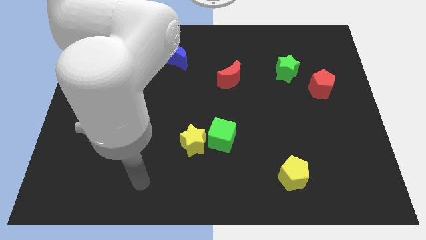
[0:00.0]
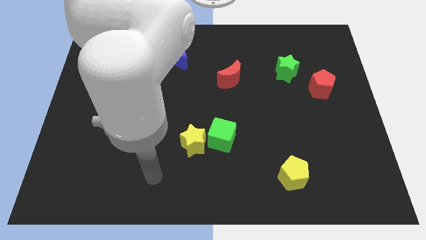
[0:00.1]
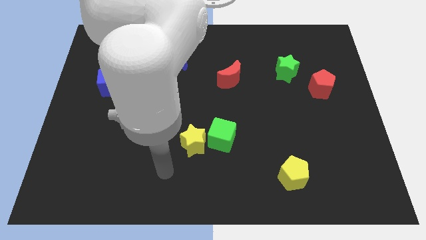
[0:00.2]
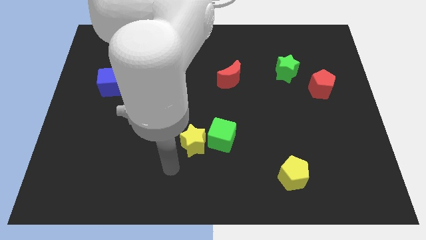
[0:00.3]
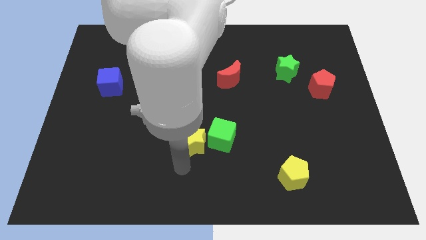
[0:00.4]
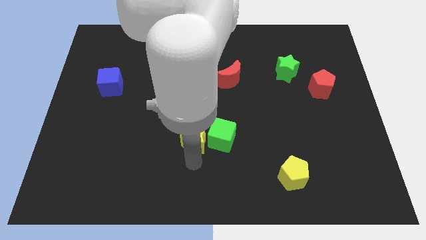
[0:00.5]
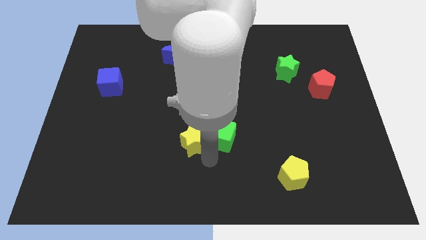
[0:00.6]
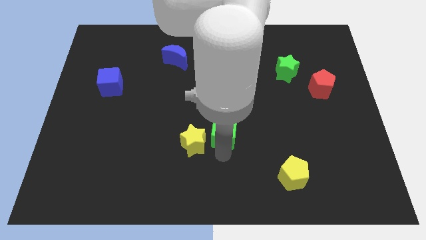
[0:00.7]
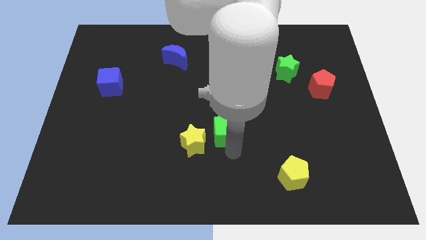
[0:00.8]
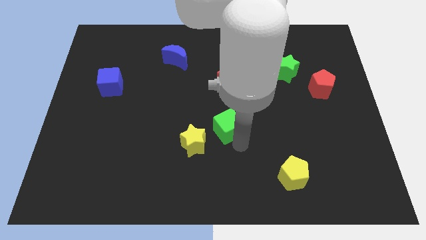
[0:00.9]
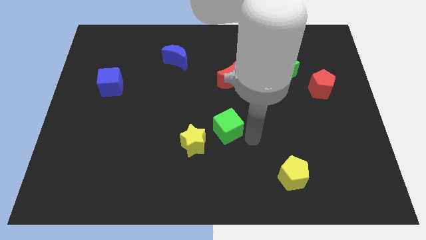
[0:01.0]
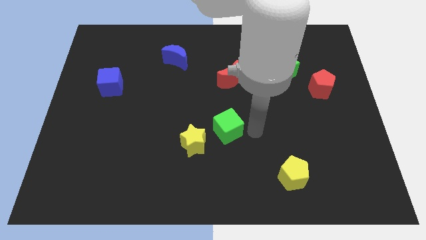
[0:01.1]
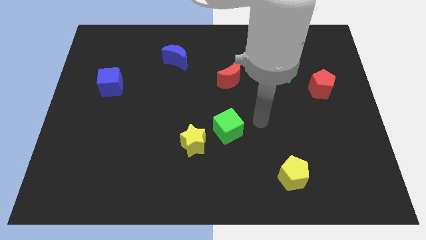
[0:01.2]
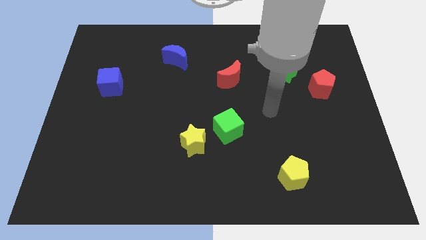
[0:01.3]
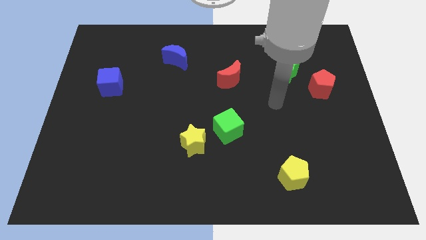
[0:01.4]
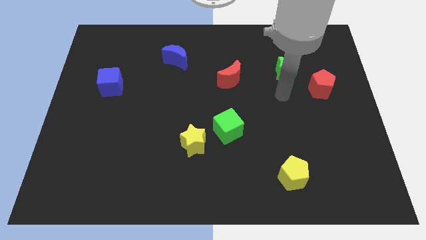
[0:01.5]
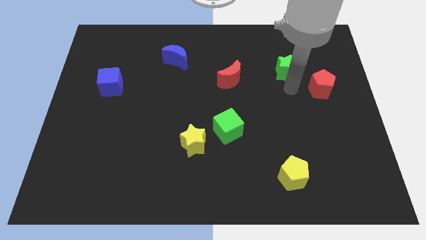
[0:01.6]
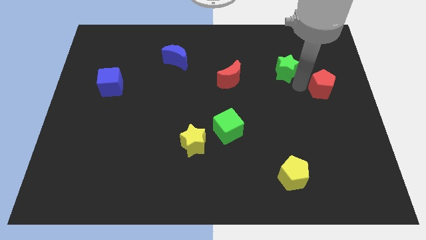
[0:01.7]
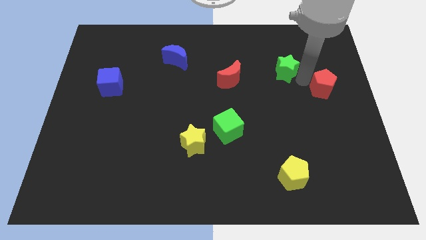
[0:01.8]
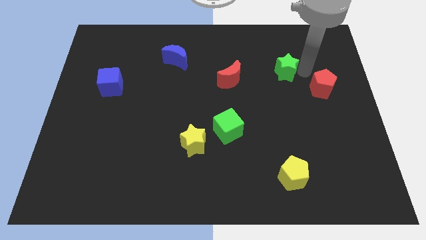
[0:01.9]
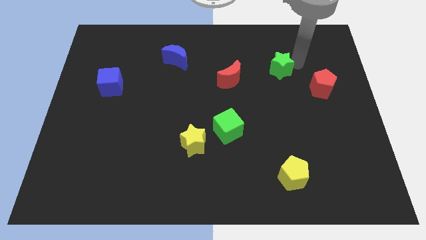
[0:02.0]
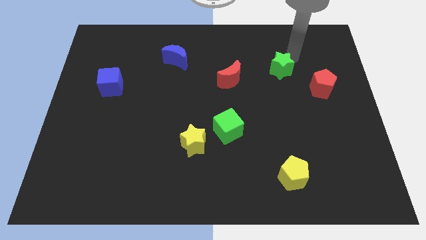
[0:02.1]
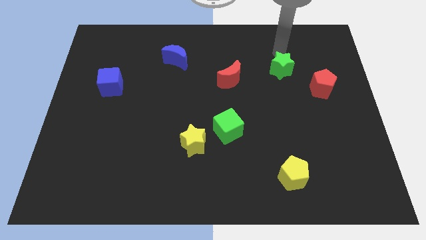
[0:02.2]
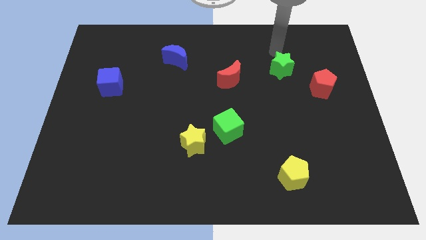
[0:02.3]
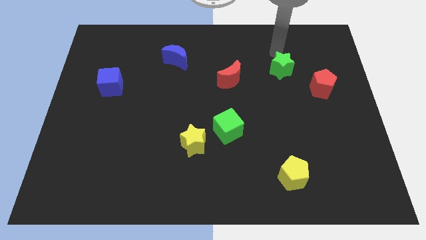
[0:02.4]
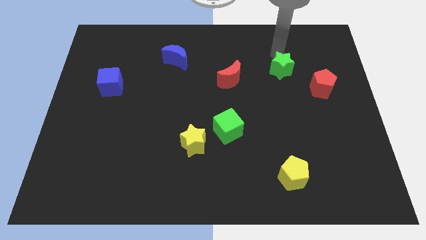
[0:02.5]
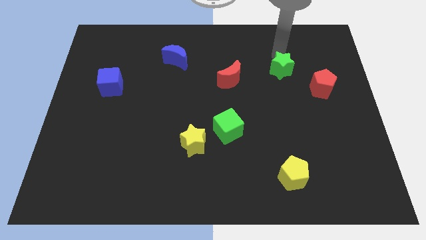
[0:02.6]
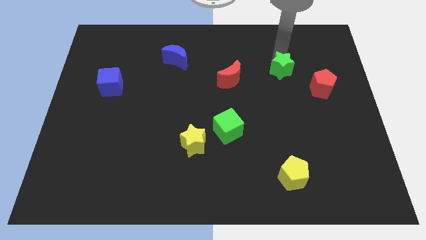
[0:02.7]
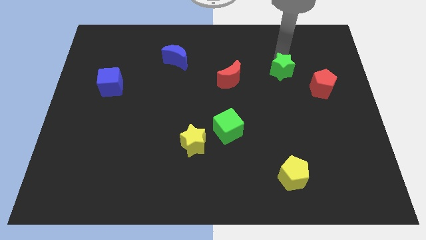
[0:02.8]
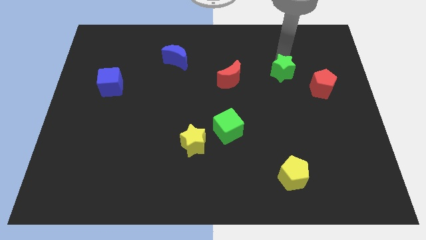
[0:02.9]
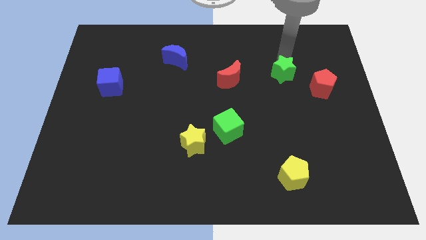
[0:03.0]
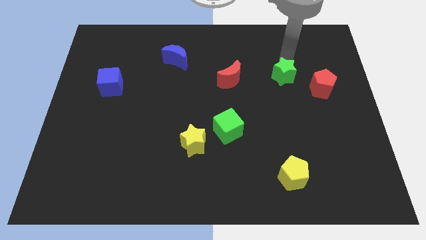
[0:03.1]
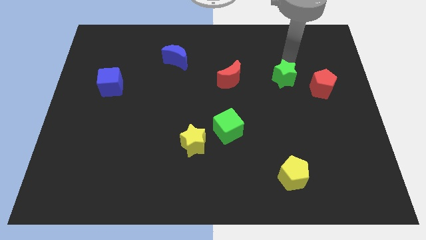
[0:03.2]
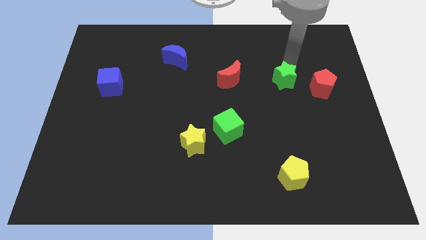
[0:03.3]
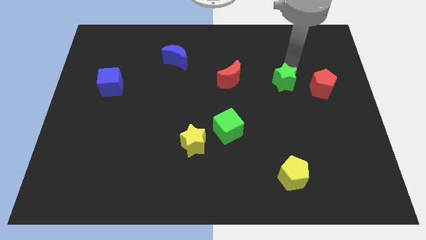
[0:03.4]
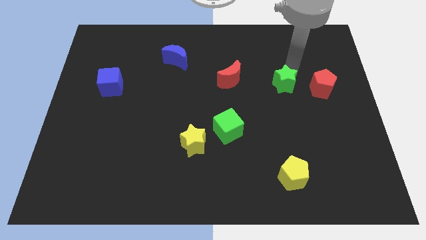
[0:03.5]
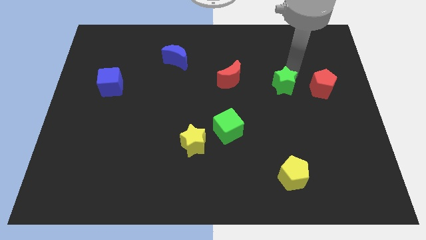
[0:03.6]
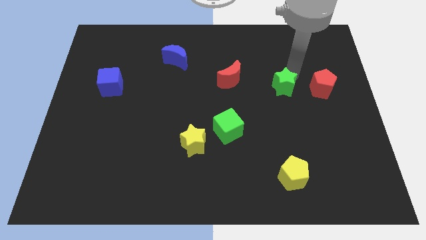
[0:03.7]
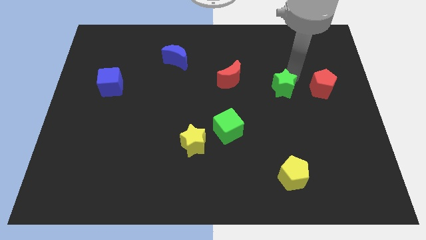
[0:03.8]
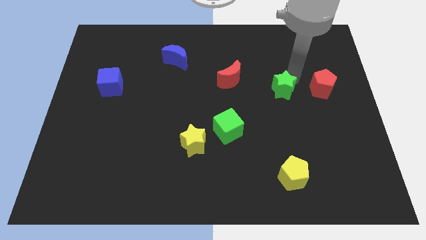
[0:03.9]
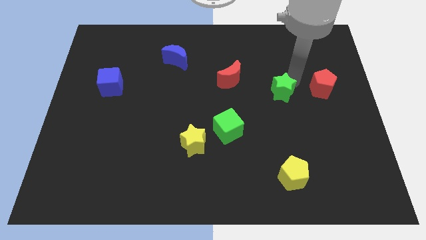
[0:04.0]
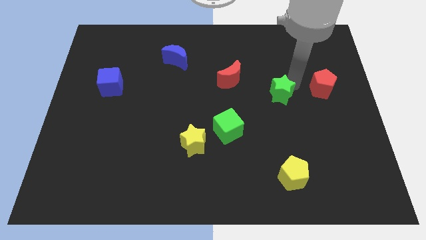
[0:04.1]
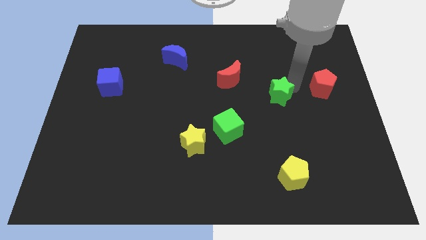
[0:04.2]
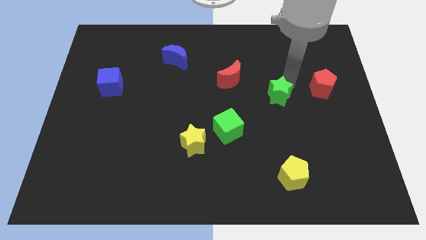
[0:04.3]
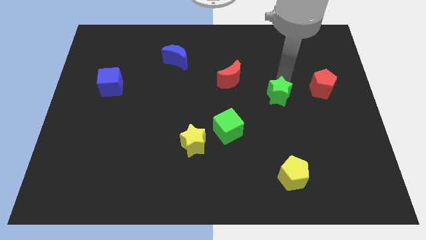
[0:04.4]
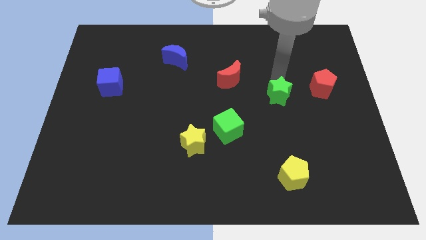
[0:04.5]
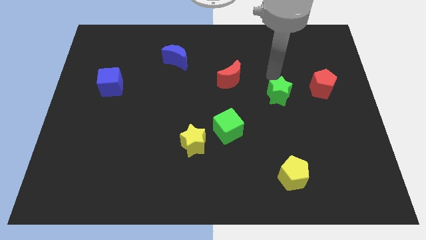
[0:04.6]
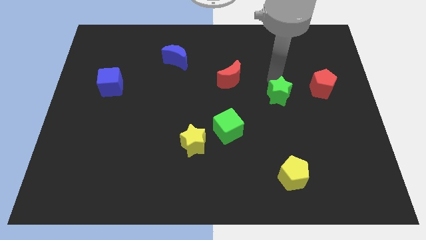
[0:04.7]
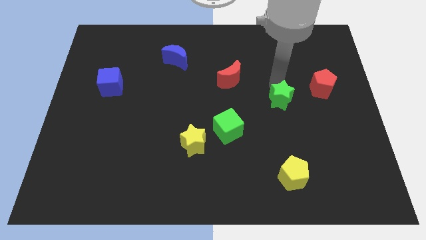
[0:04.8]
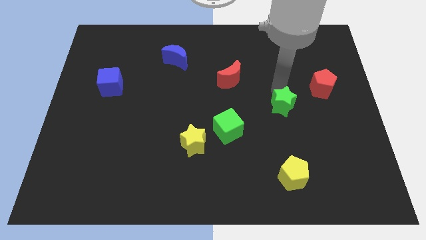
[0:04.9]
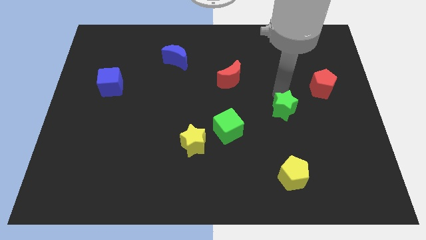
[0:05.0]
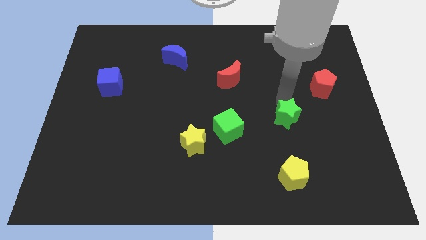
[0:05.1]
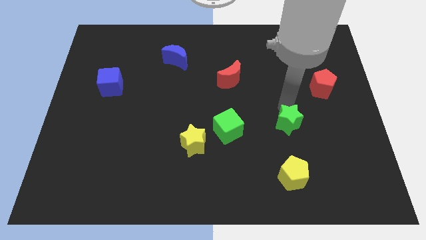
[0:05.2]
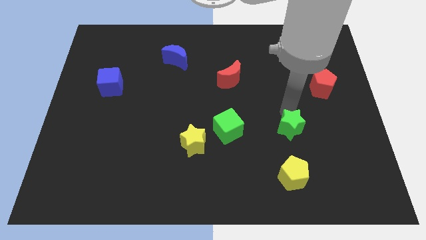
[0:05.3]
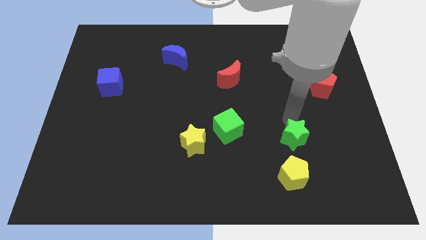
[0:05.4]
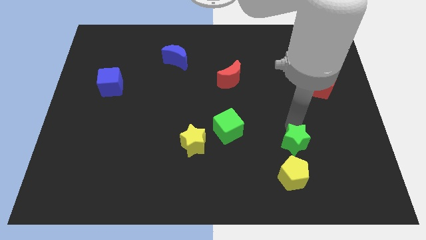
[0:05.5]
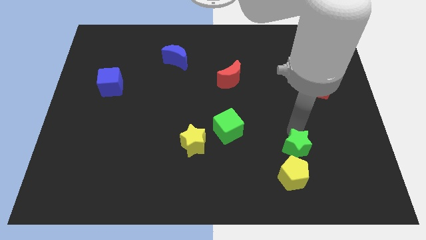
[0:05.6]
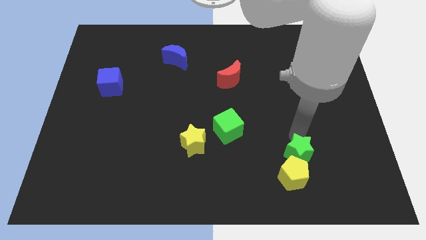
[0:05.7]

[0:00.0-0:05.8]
put the green star next to the yellow pentagon

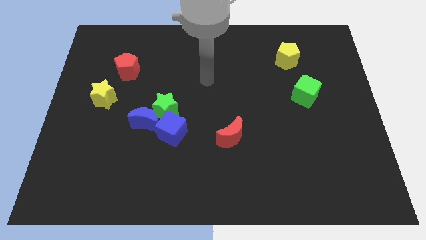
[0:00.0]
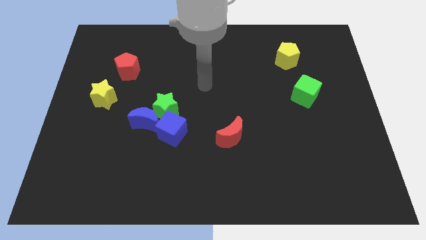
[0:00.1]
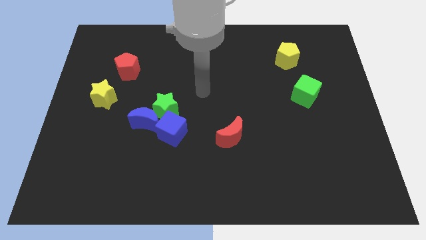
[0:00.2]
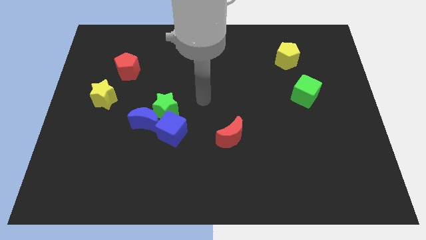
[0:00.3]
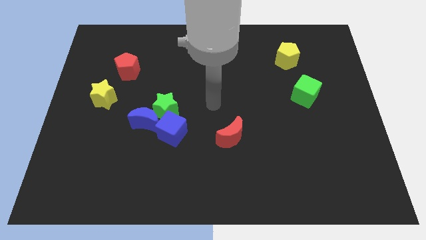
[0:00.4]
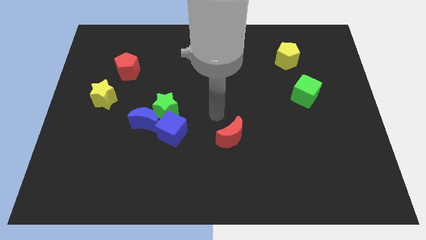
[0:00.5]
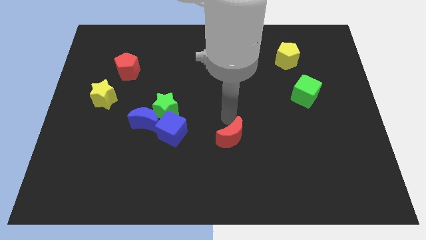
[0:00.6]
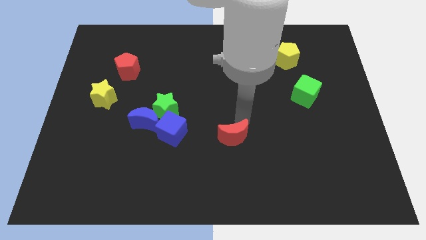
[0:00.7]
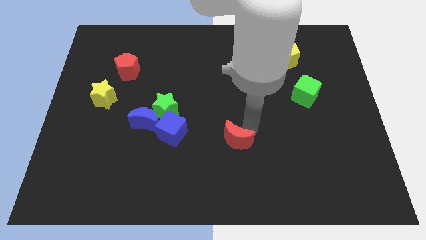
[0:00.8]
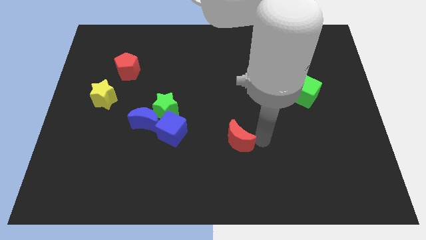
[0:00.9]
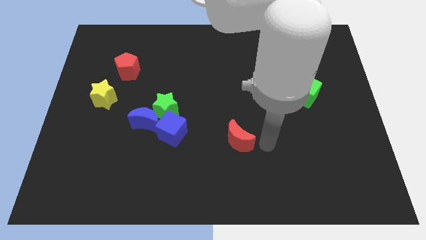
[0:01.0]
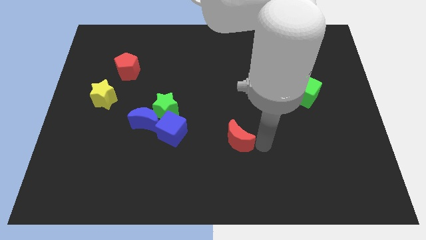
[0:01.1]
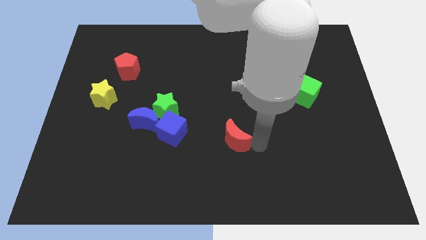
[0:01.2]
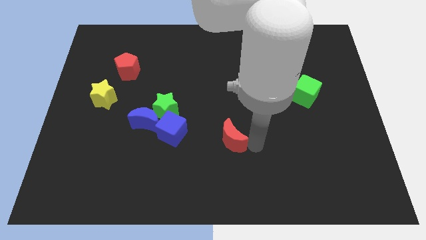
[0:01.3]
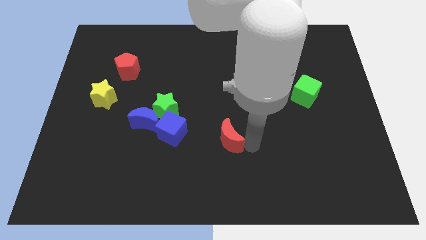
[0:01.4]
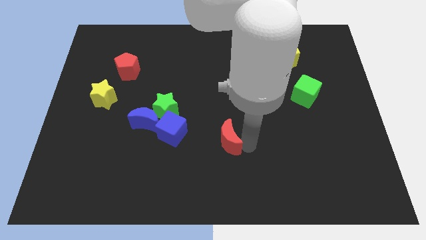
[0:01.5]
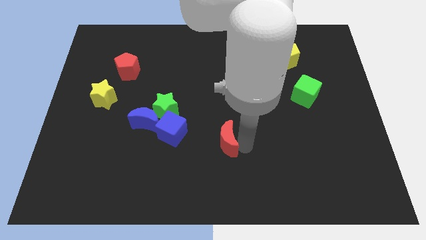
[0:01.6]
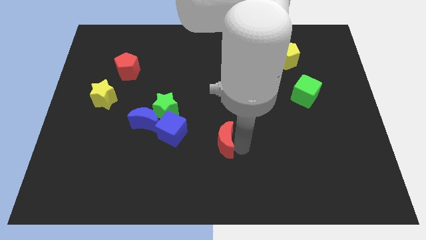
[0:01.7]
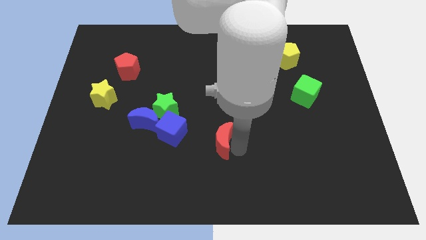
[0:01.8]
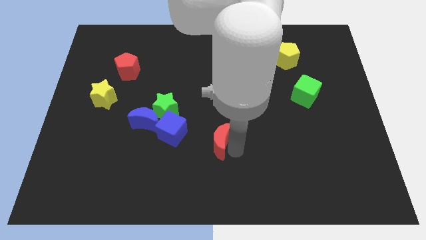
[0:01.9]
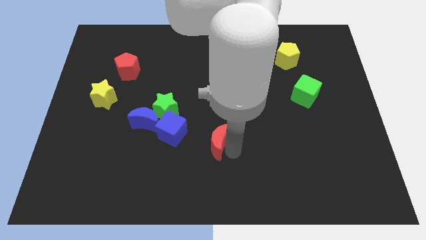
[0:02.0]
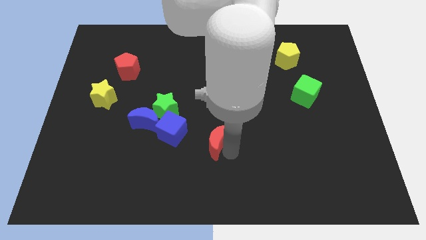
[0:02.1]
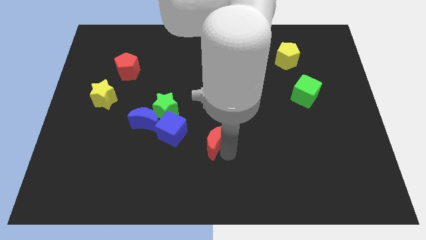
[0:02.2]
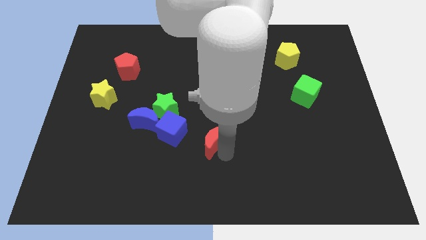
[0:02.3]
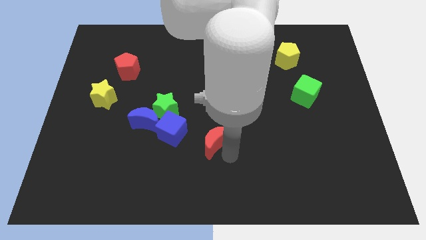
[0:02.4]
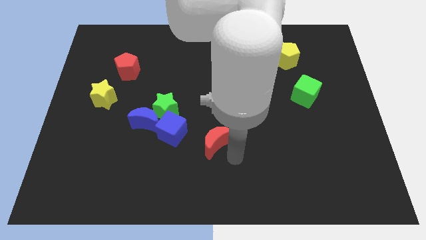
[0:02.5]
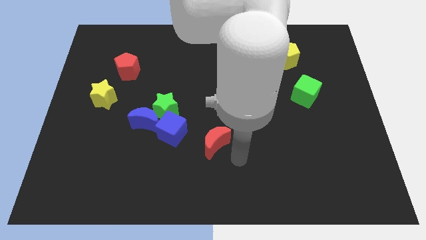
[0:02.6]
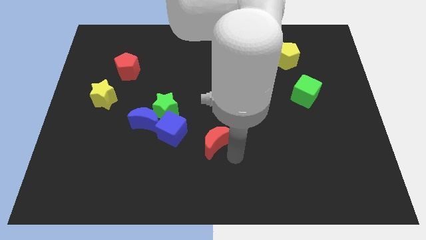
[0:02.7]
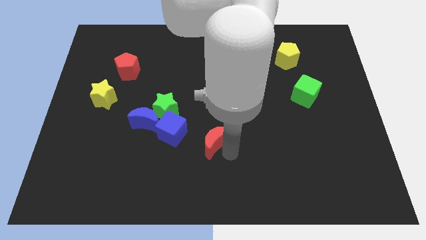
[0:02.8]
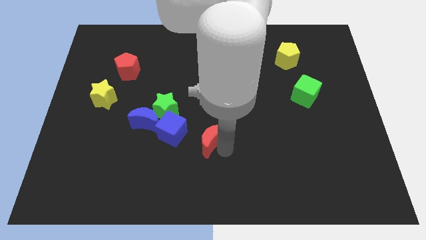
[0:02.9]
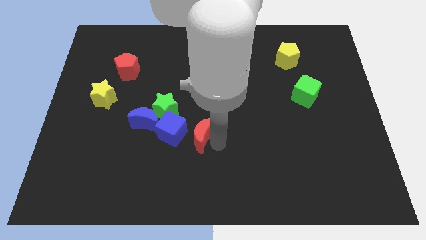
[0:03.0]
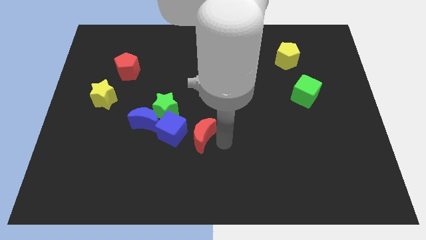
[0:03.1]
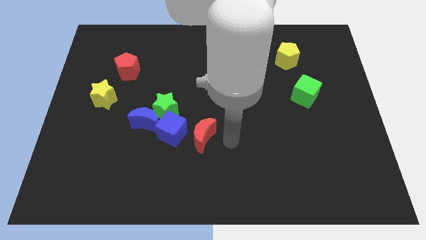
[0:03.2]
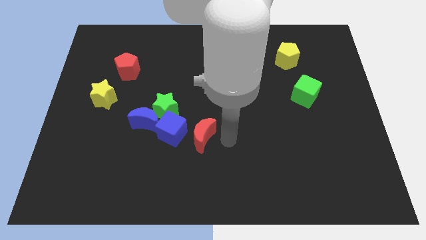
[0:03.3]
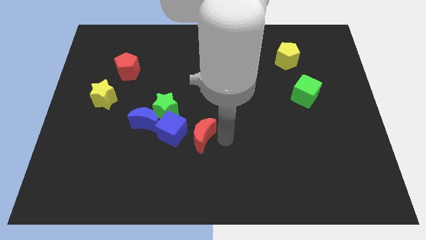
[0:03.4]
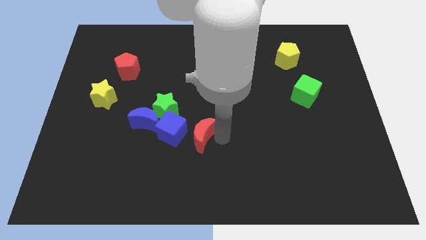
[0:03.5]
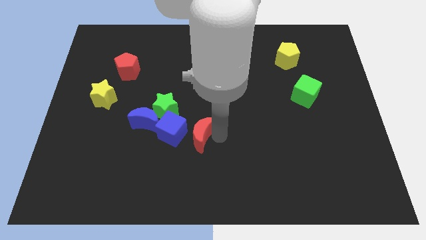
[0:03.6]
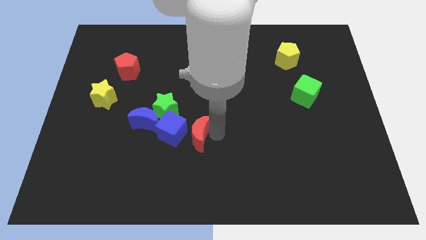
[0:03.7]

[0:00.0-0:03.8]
move the red moon to the blue cube
